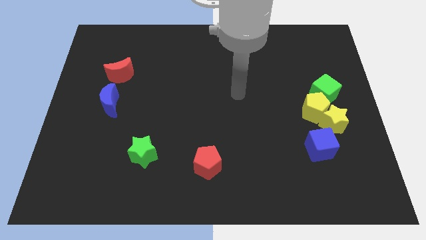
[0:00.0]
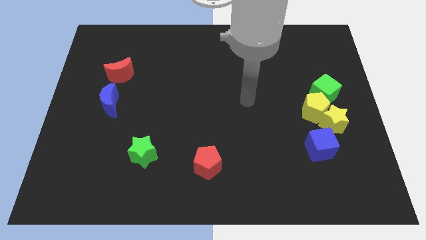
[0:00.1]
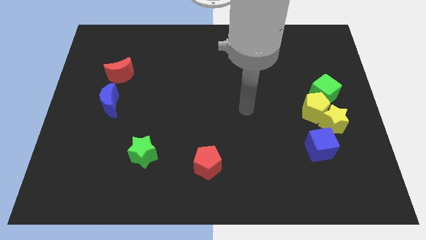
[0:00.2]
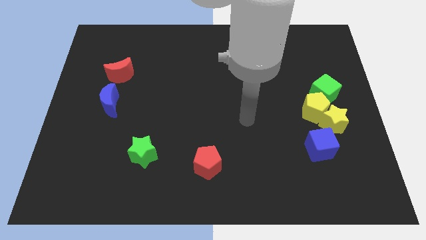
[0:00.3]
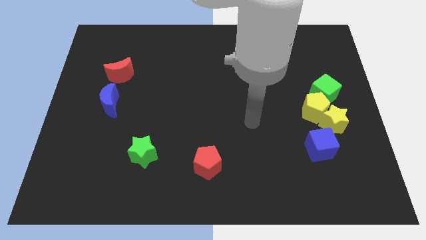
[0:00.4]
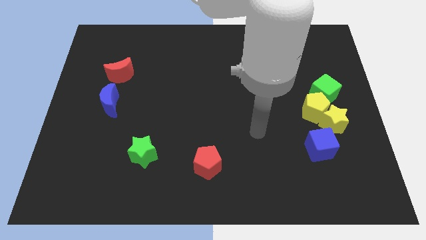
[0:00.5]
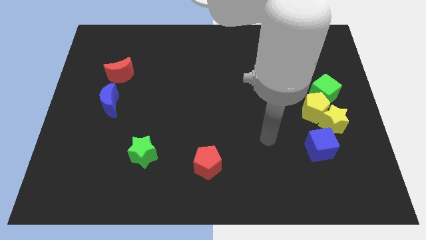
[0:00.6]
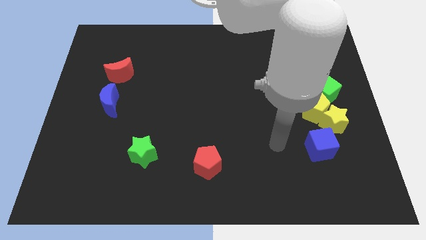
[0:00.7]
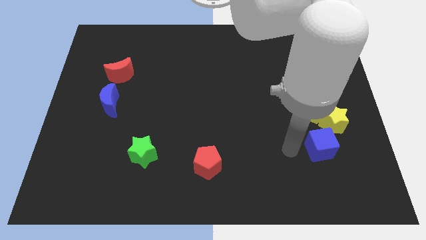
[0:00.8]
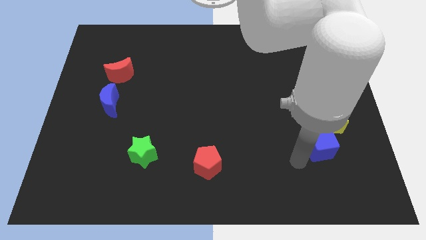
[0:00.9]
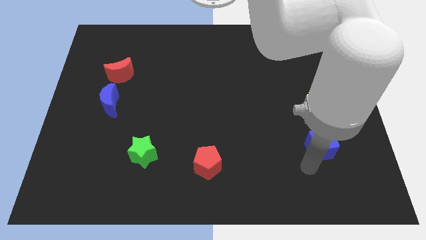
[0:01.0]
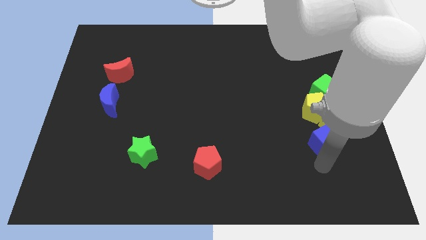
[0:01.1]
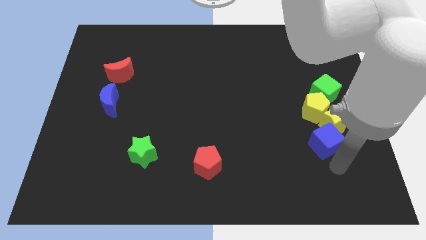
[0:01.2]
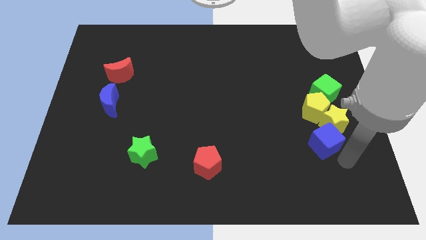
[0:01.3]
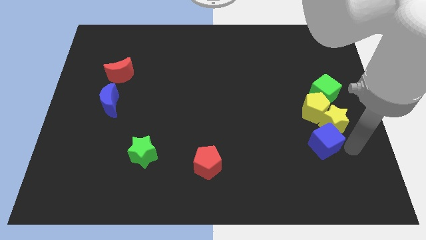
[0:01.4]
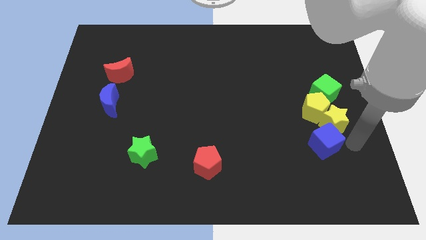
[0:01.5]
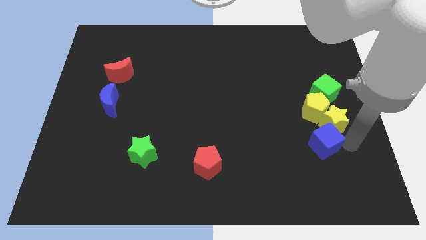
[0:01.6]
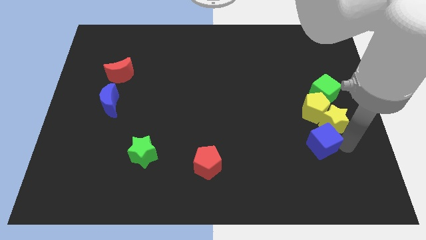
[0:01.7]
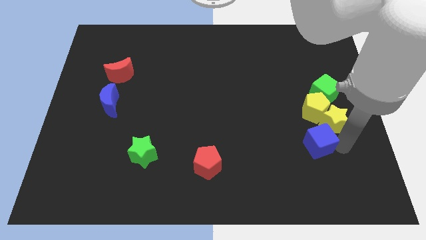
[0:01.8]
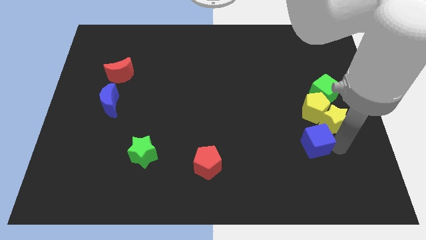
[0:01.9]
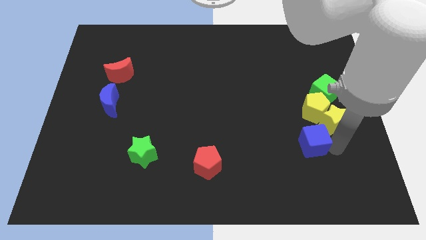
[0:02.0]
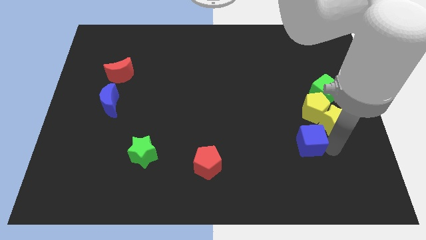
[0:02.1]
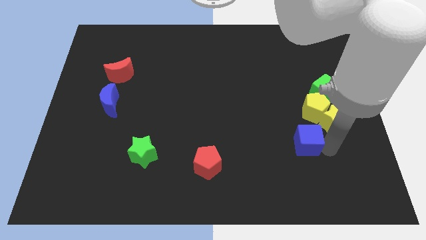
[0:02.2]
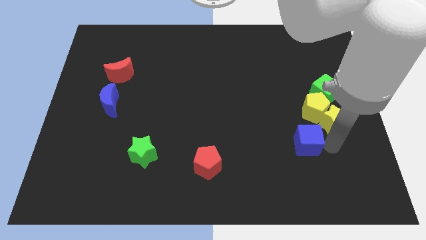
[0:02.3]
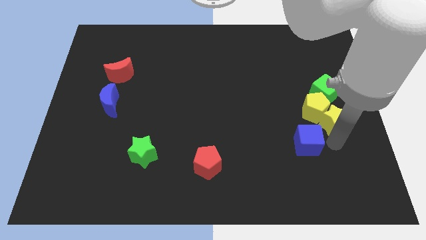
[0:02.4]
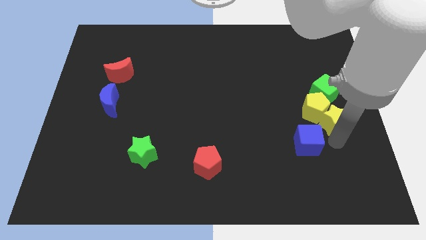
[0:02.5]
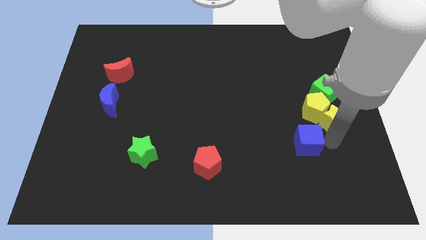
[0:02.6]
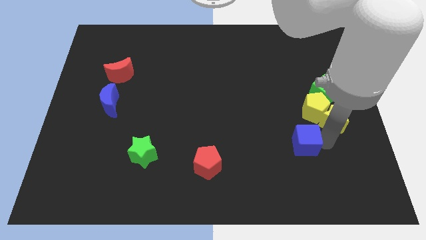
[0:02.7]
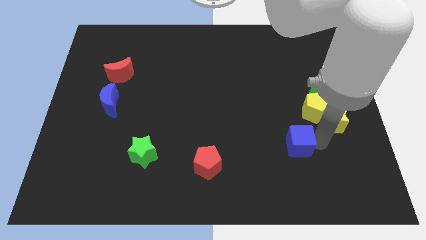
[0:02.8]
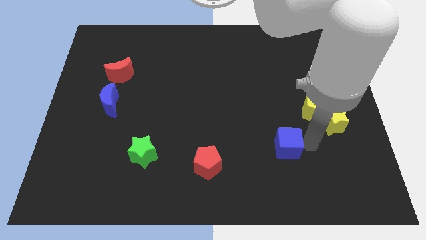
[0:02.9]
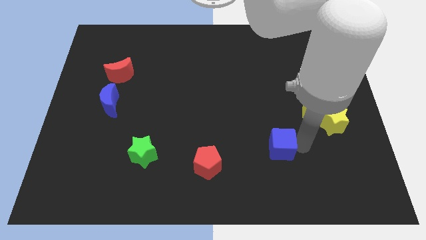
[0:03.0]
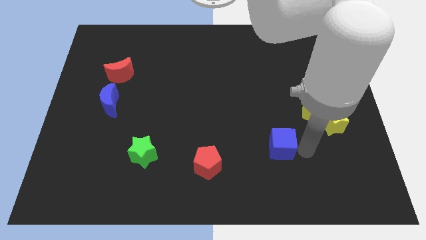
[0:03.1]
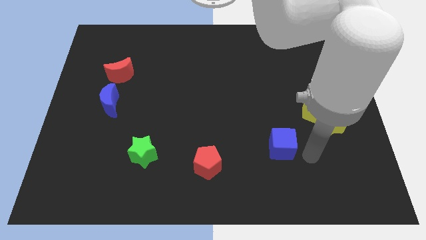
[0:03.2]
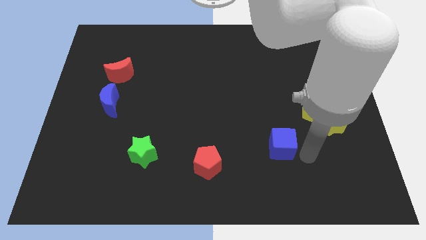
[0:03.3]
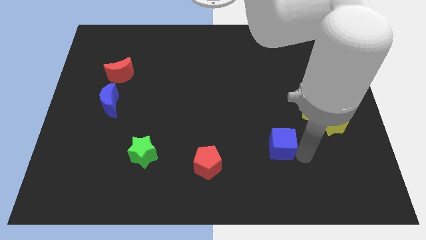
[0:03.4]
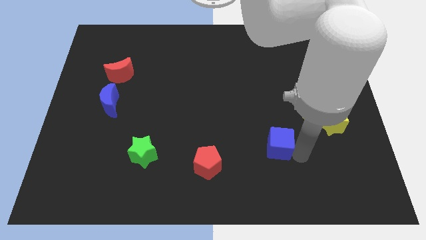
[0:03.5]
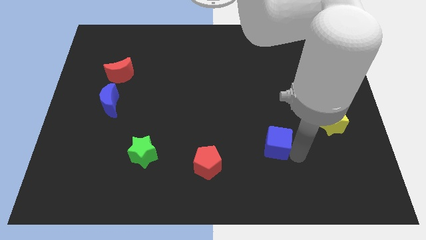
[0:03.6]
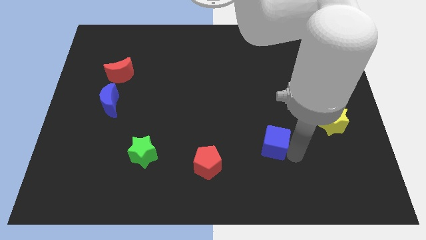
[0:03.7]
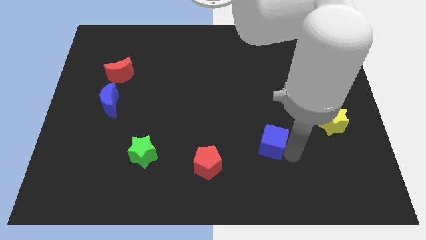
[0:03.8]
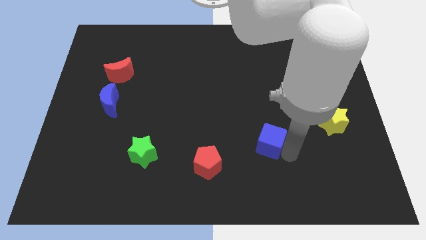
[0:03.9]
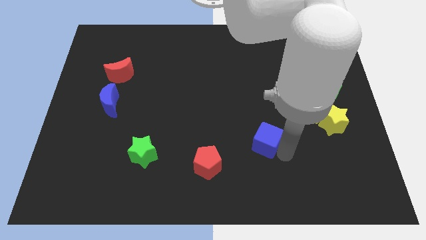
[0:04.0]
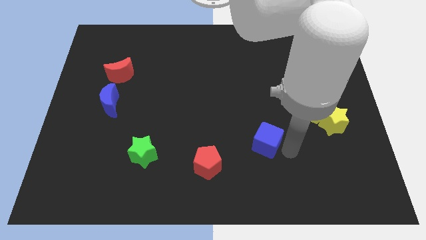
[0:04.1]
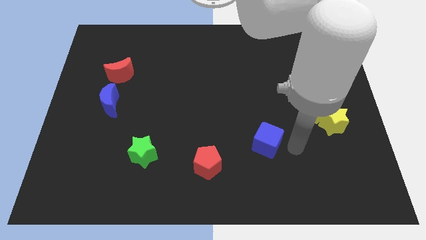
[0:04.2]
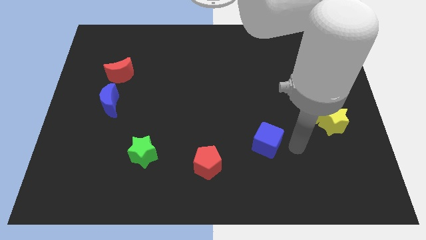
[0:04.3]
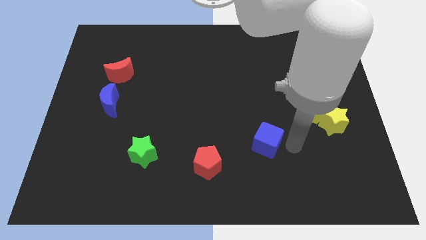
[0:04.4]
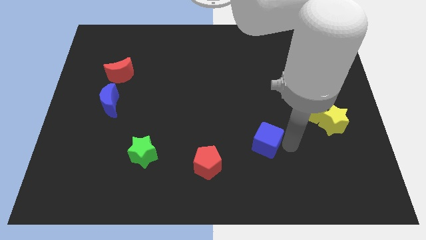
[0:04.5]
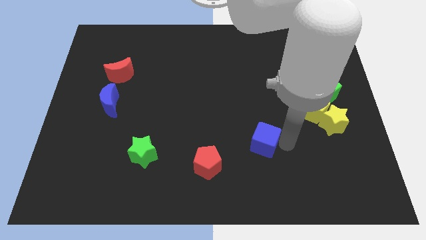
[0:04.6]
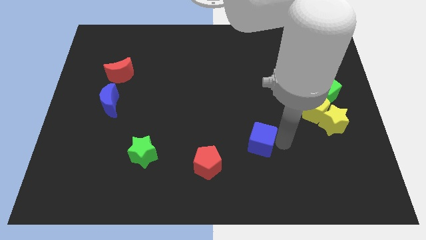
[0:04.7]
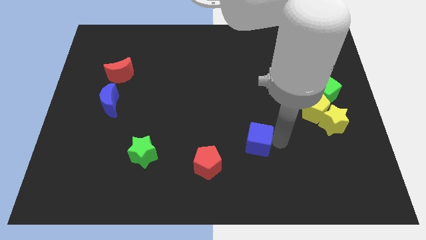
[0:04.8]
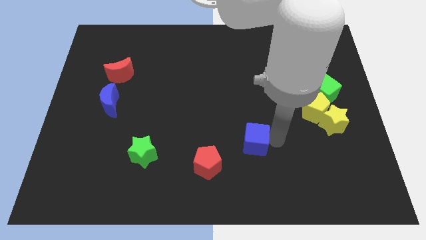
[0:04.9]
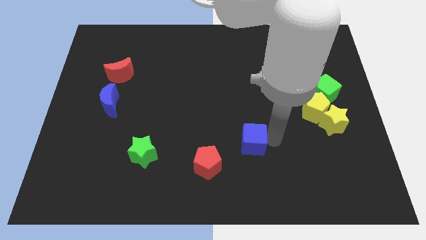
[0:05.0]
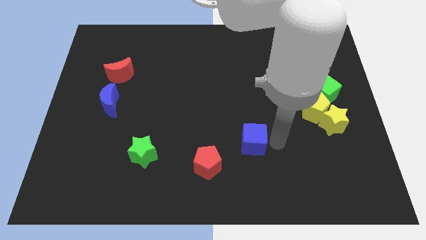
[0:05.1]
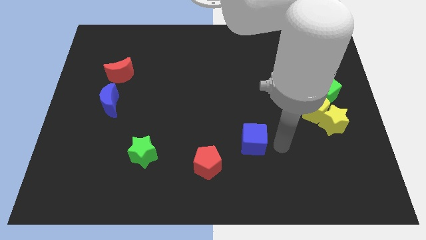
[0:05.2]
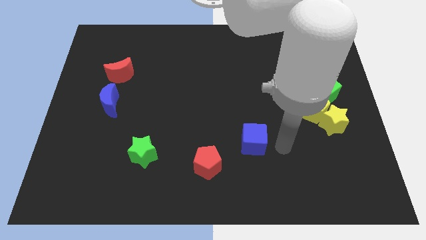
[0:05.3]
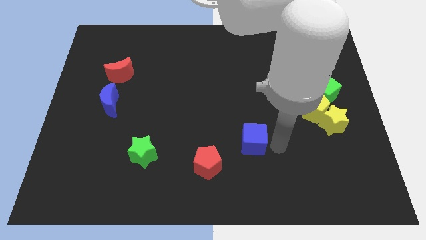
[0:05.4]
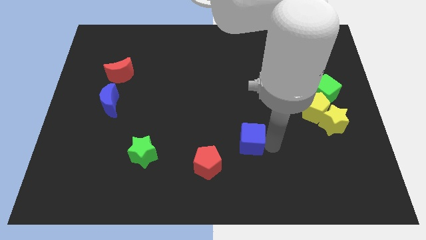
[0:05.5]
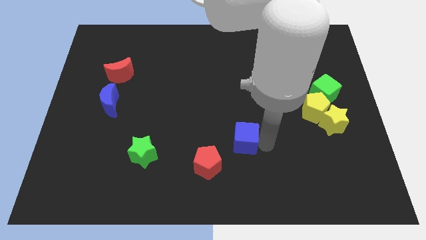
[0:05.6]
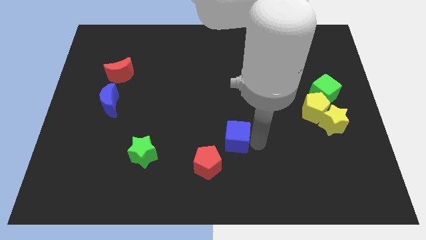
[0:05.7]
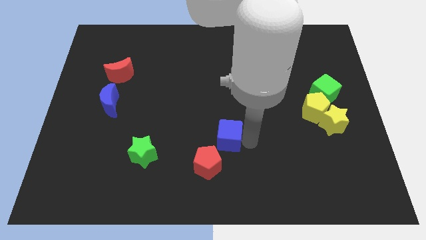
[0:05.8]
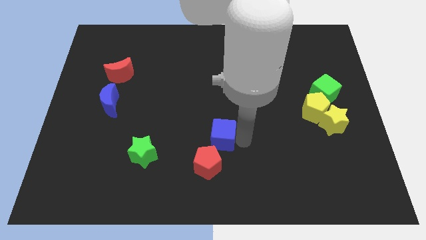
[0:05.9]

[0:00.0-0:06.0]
slide the blue cube to the left

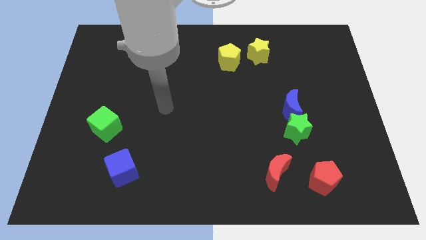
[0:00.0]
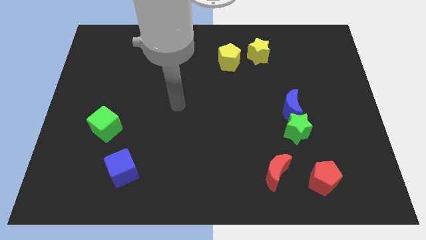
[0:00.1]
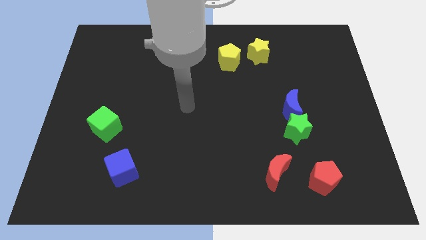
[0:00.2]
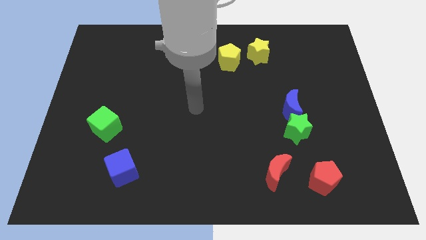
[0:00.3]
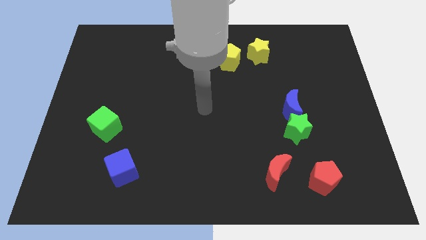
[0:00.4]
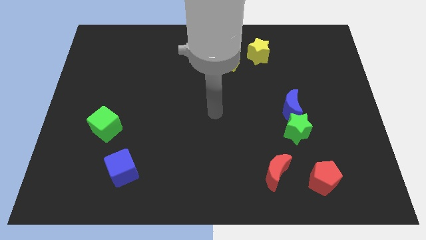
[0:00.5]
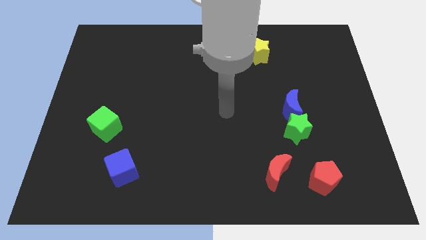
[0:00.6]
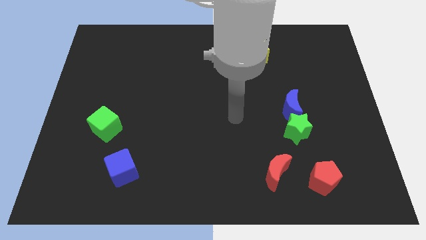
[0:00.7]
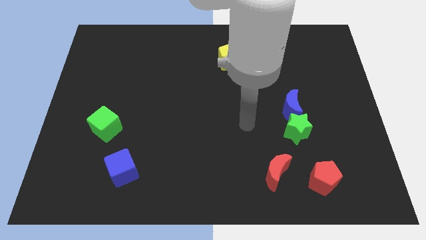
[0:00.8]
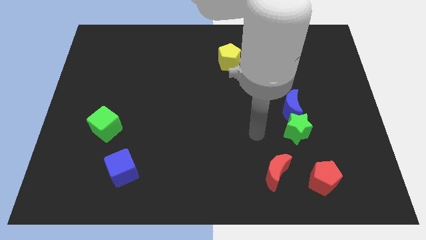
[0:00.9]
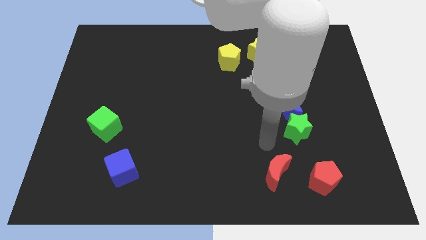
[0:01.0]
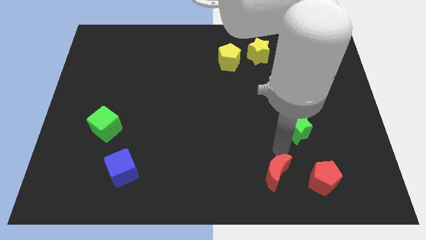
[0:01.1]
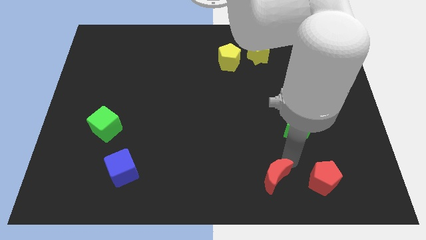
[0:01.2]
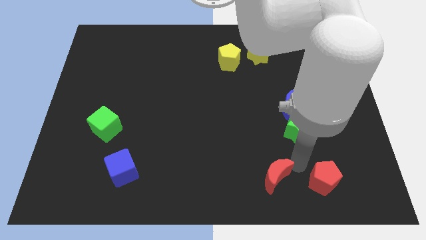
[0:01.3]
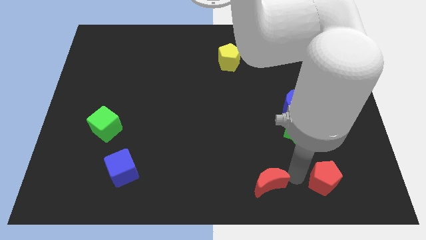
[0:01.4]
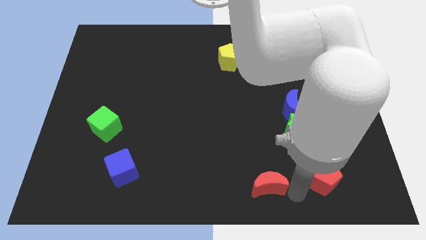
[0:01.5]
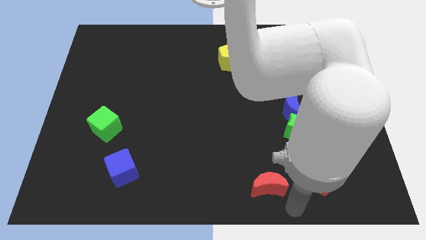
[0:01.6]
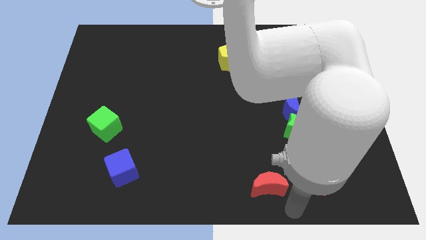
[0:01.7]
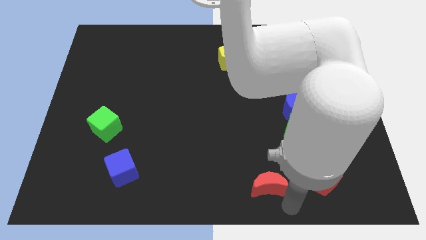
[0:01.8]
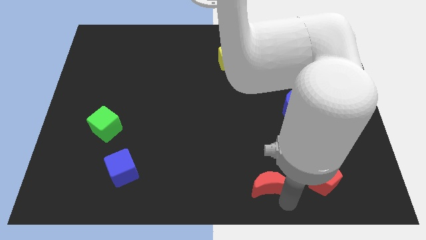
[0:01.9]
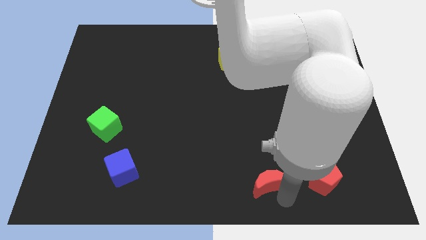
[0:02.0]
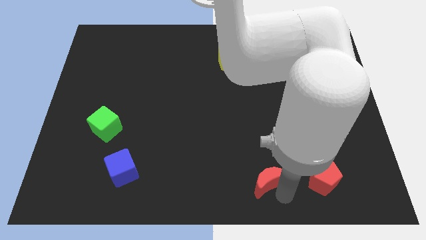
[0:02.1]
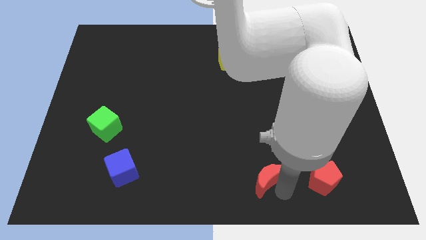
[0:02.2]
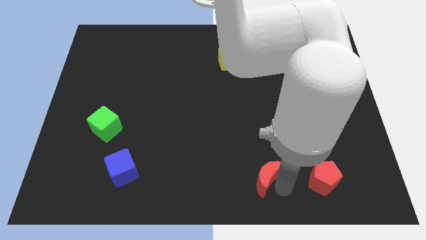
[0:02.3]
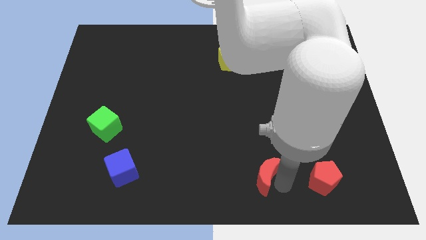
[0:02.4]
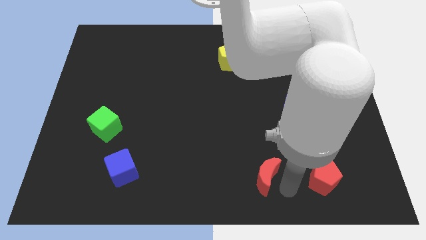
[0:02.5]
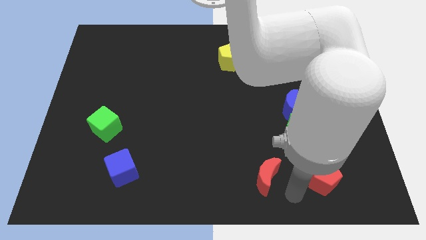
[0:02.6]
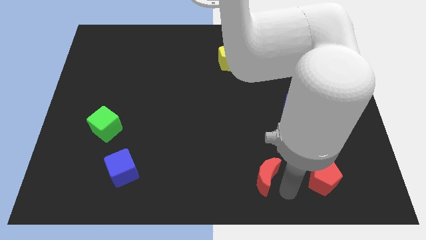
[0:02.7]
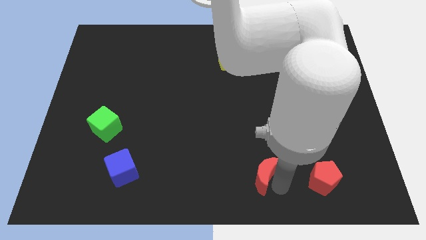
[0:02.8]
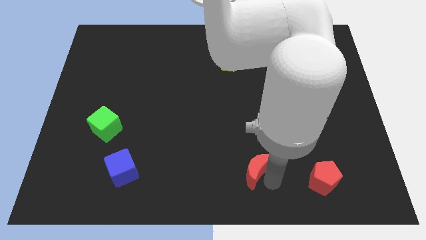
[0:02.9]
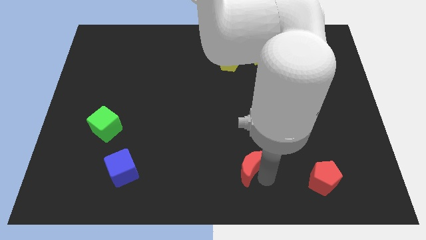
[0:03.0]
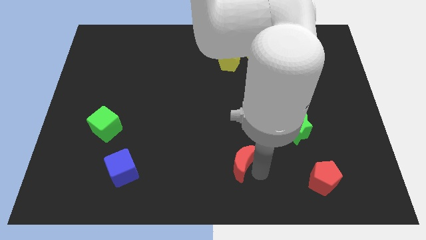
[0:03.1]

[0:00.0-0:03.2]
slightly move the red moon to the left
